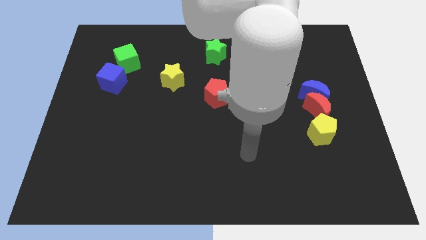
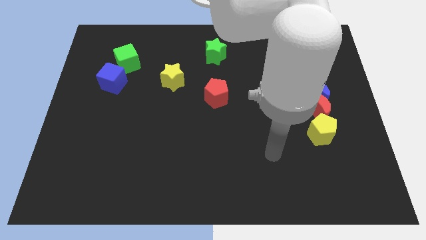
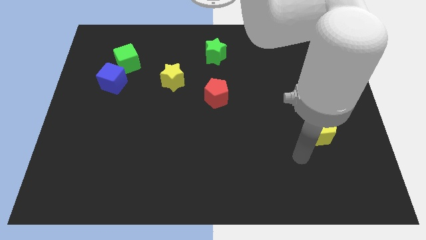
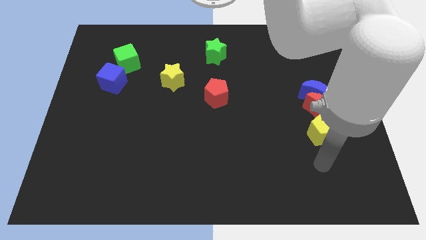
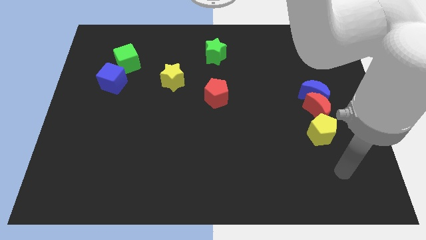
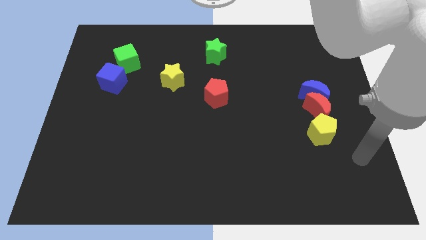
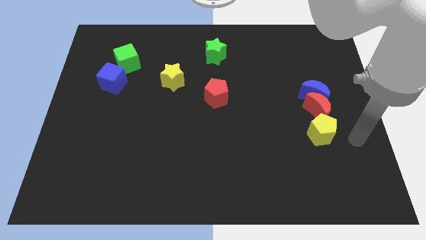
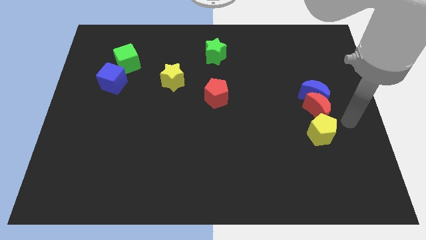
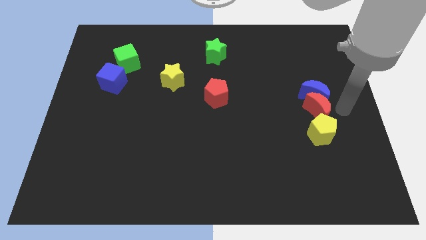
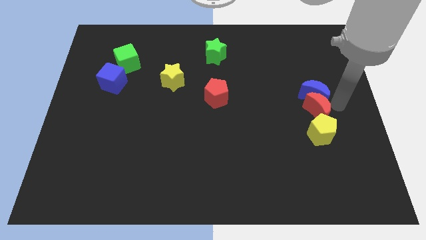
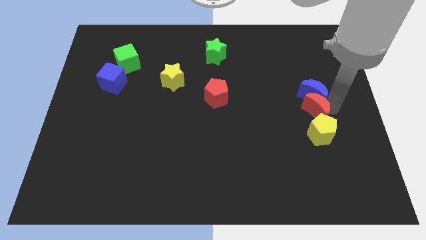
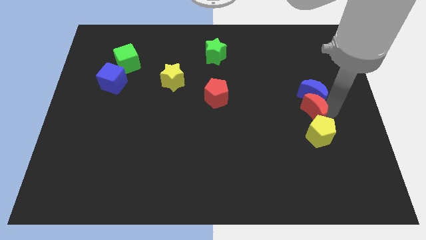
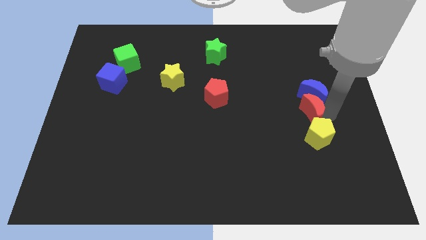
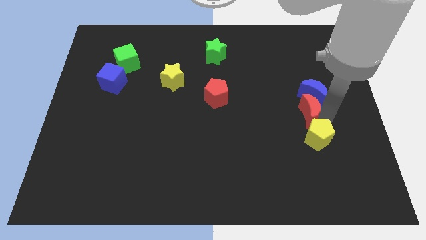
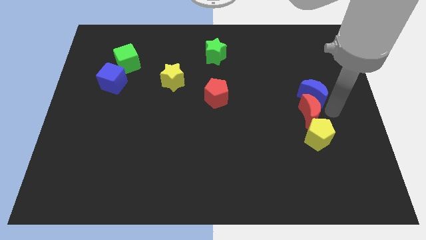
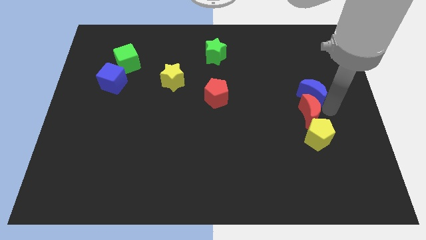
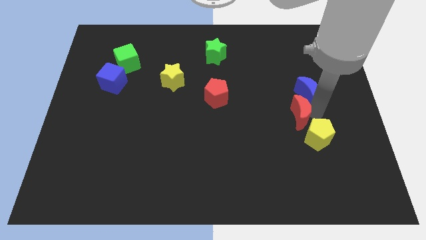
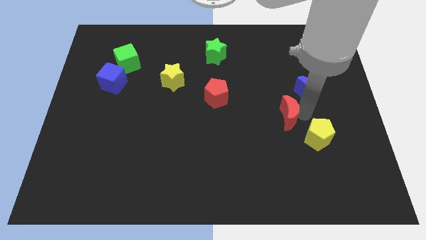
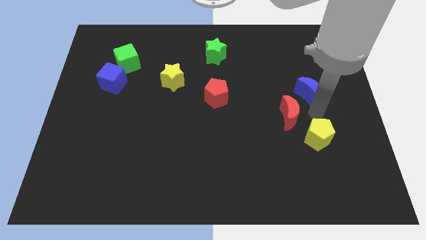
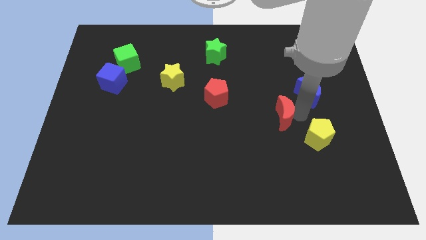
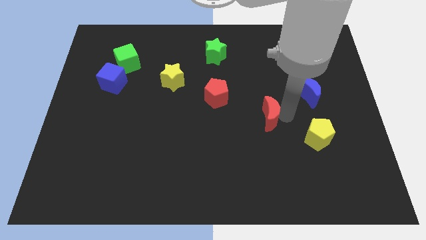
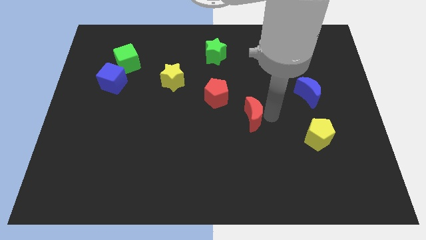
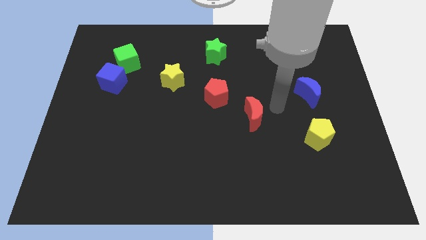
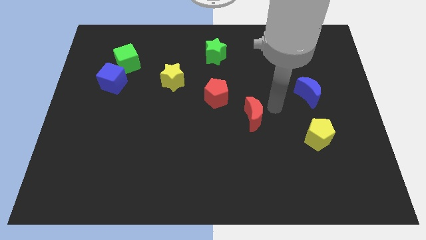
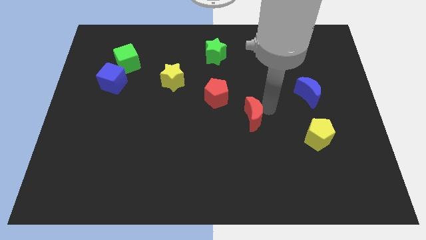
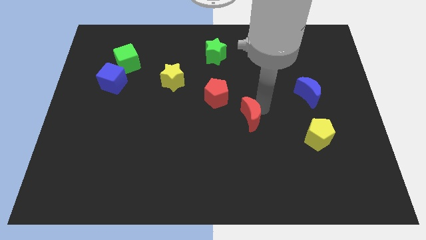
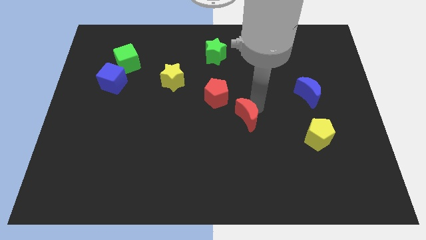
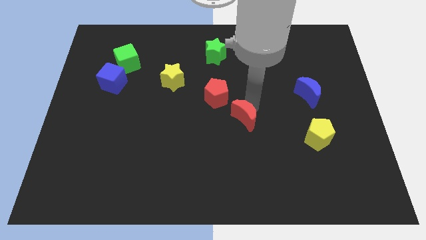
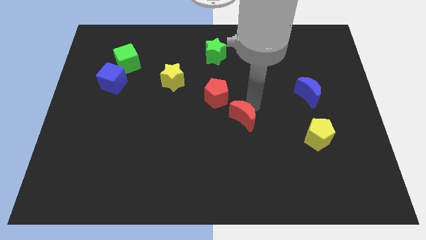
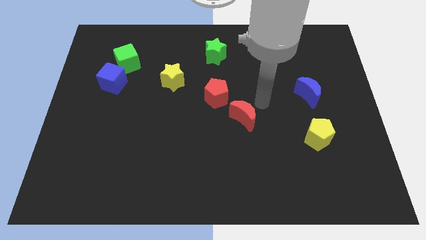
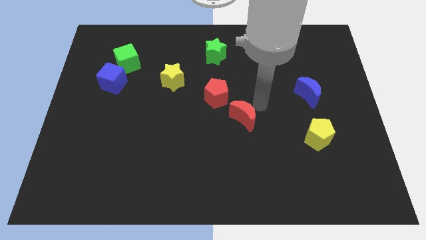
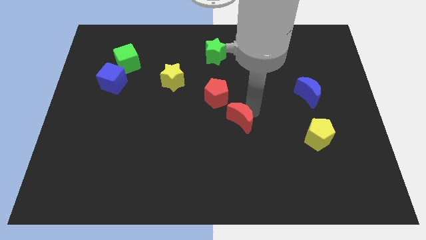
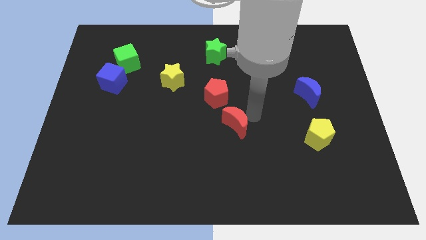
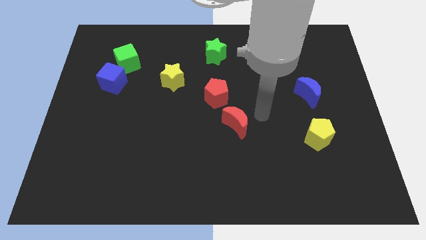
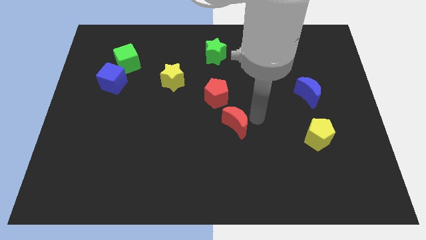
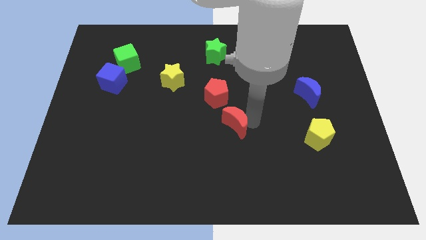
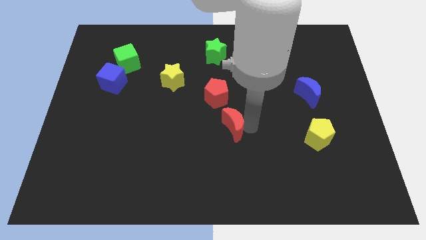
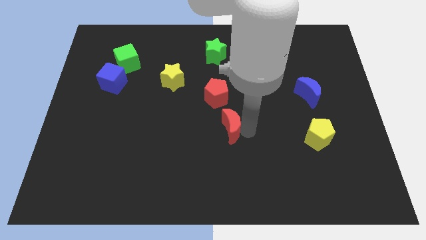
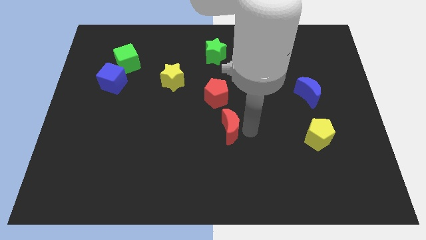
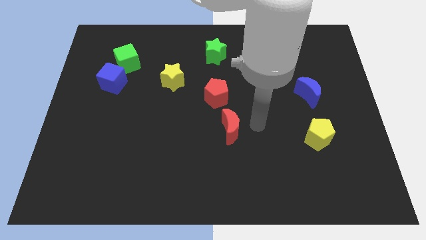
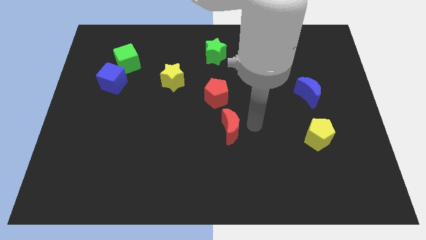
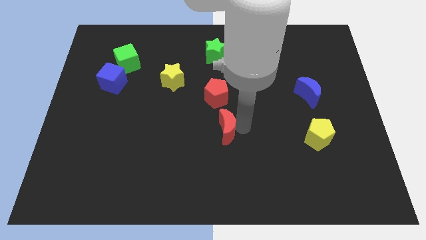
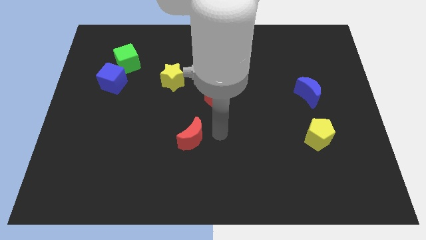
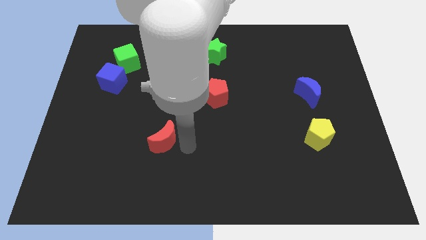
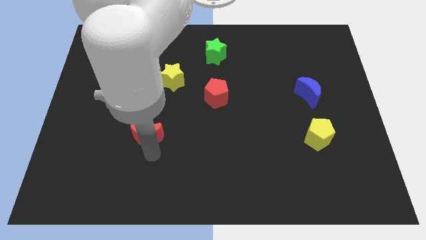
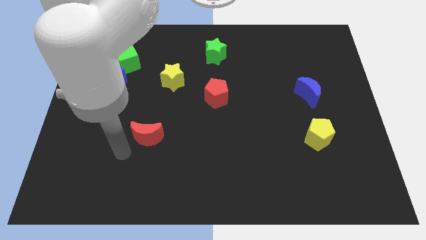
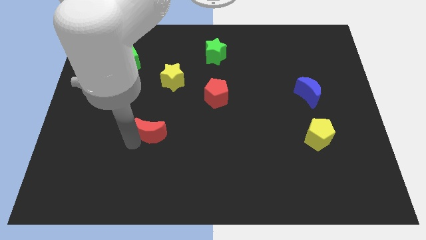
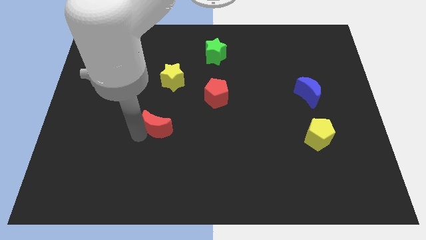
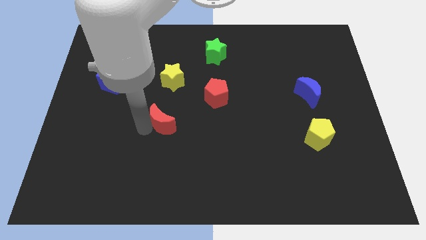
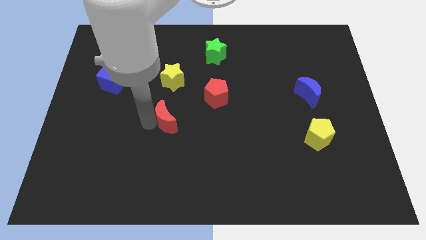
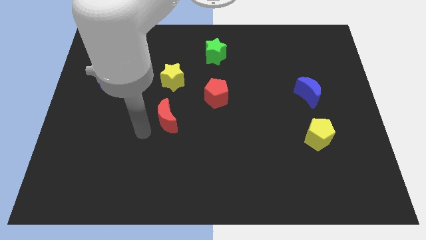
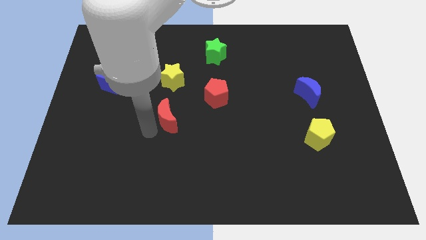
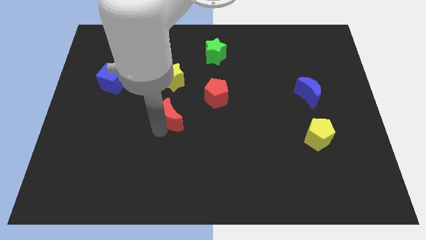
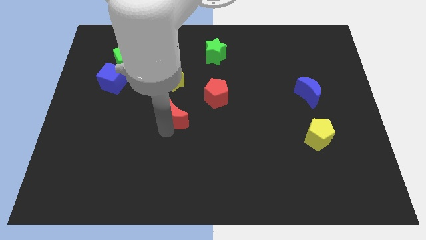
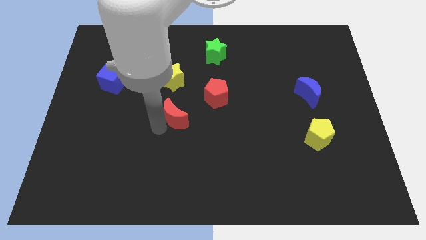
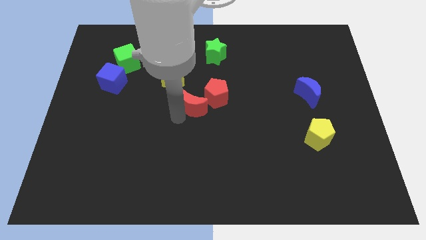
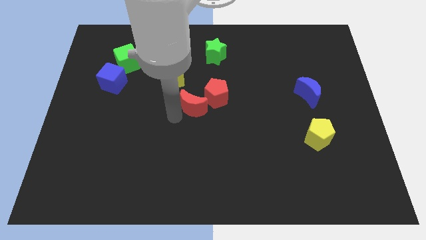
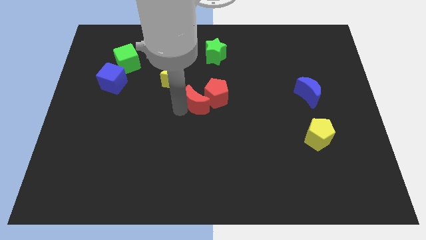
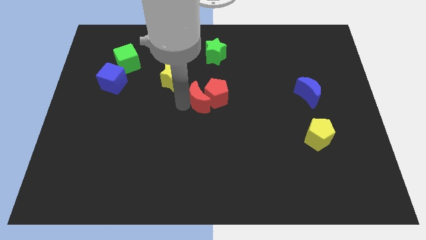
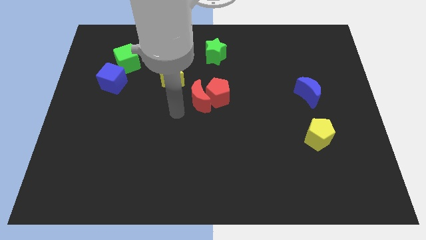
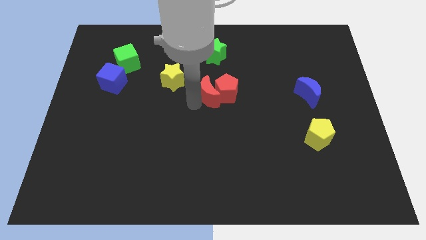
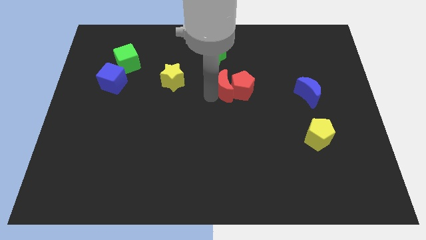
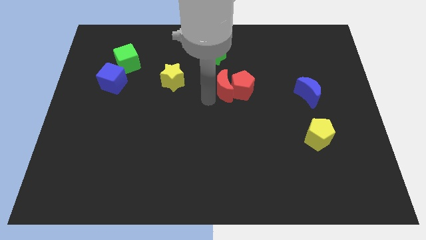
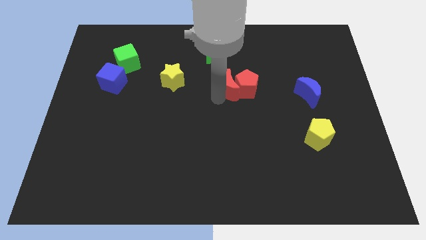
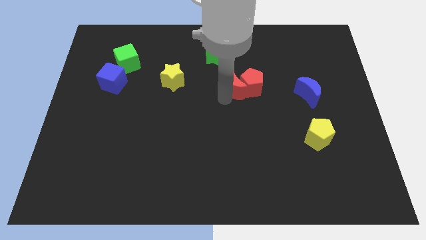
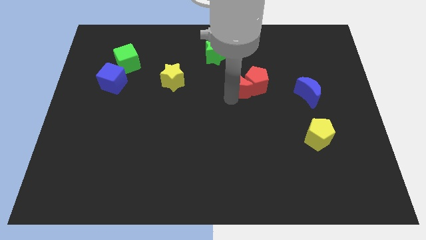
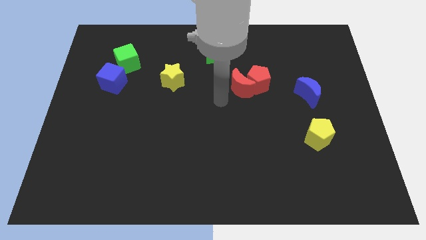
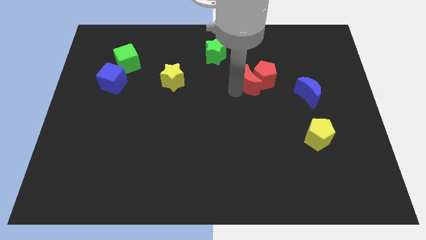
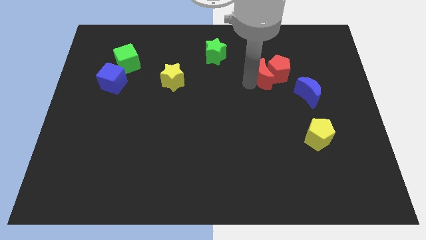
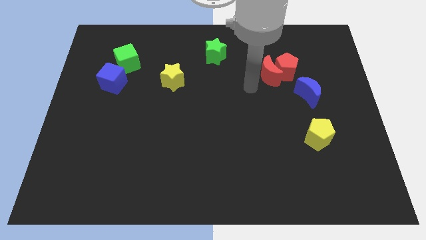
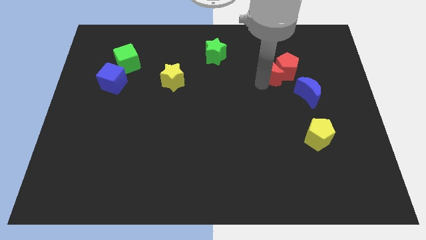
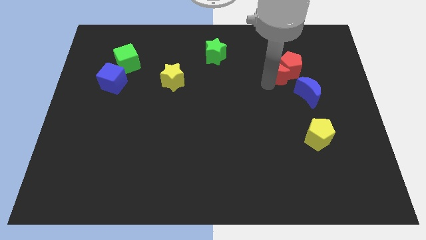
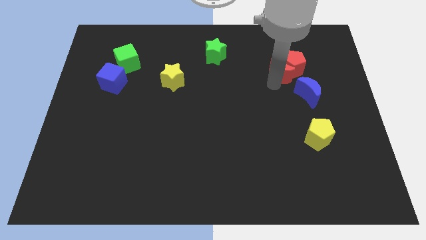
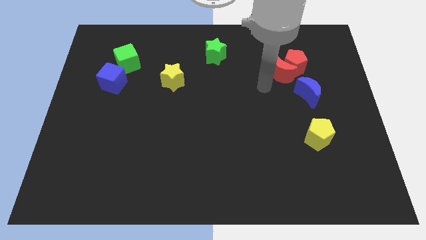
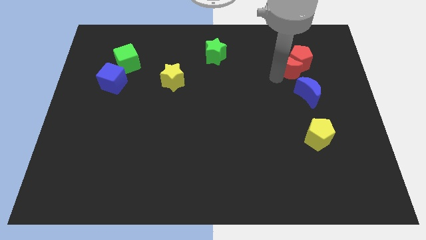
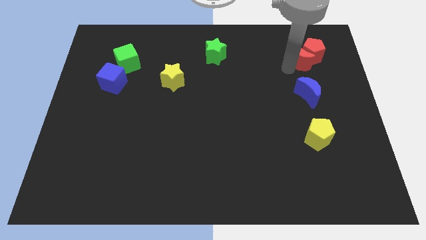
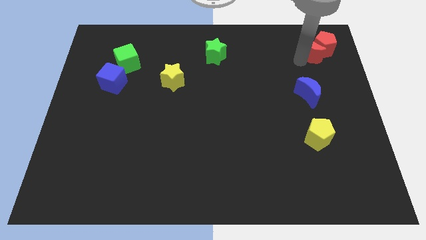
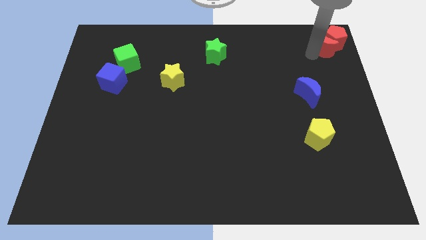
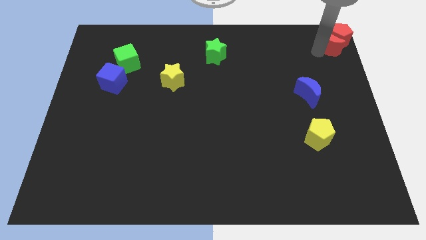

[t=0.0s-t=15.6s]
push the red moon to the top right
